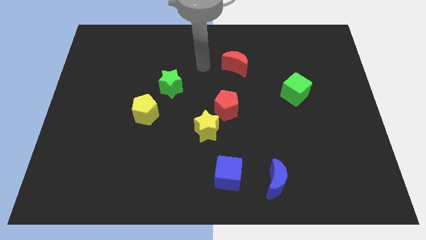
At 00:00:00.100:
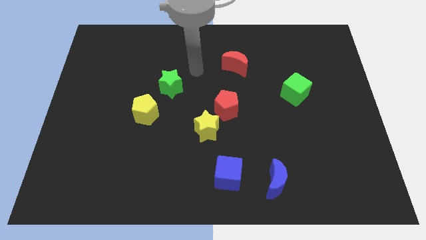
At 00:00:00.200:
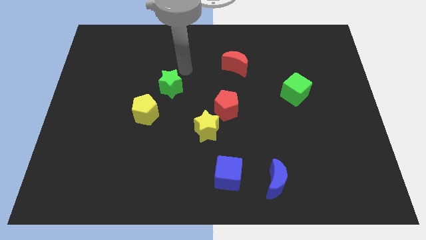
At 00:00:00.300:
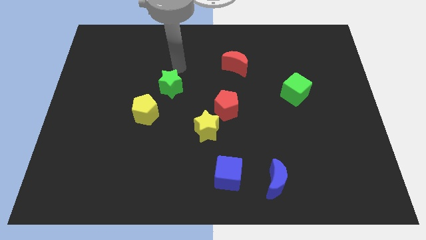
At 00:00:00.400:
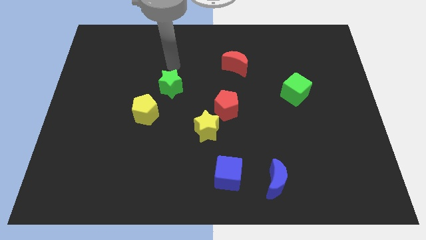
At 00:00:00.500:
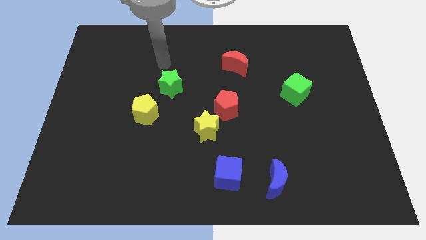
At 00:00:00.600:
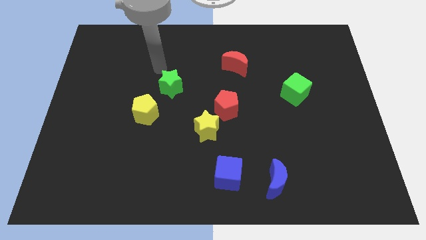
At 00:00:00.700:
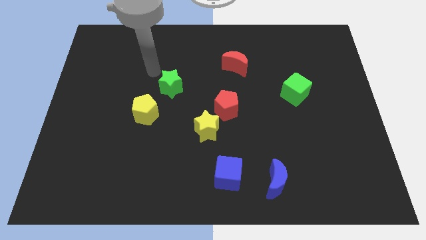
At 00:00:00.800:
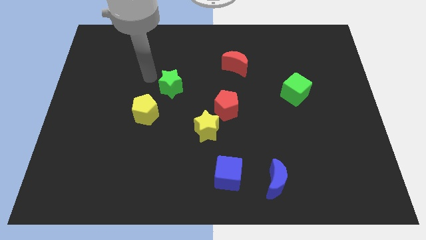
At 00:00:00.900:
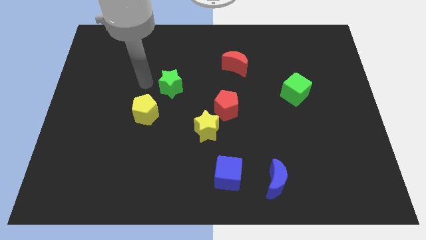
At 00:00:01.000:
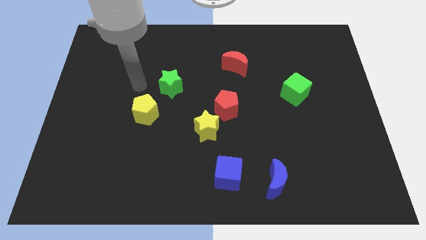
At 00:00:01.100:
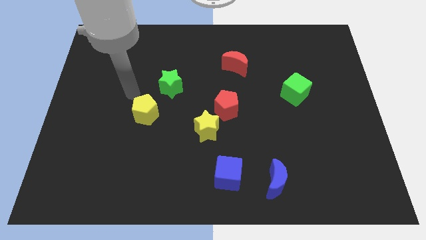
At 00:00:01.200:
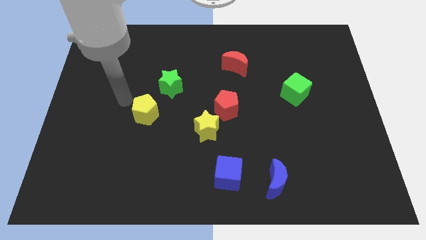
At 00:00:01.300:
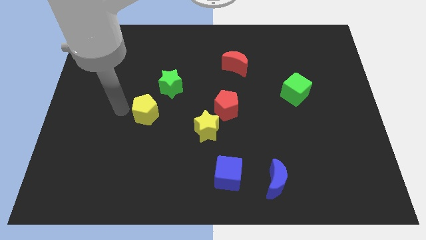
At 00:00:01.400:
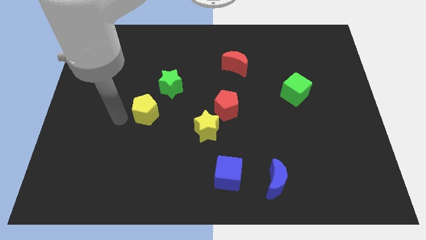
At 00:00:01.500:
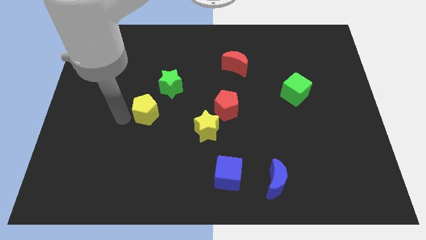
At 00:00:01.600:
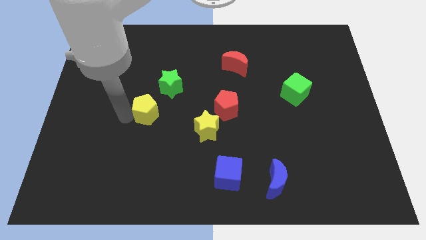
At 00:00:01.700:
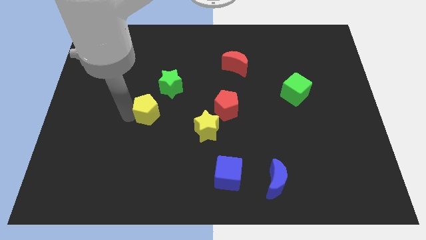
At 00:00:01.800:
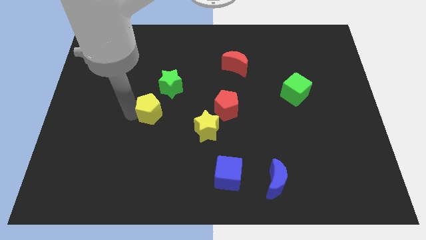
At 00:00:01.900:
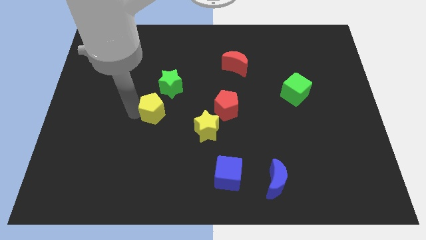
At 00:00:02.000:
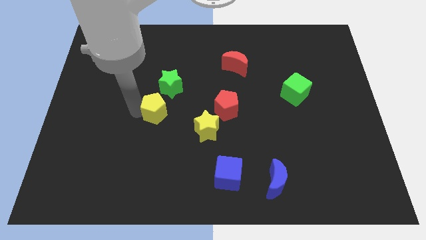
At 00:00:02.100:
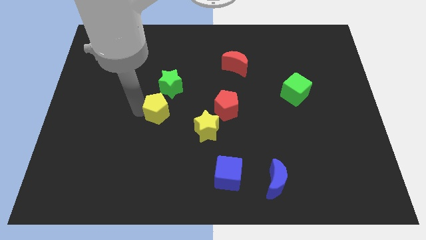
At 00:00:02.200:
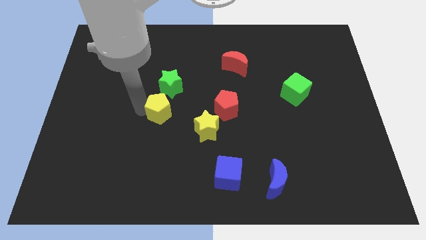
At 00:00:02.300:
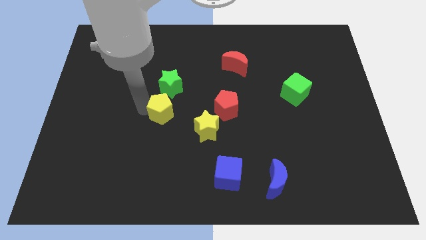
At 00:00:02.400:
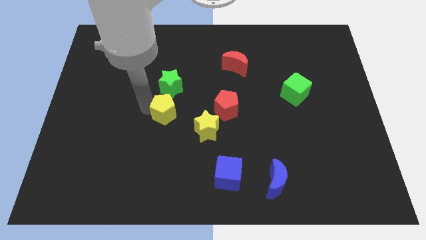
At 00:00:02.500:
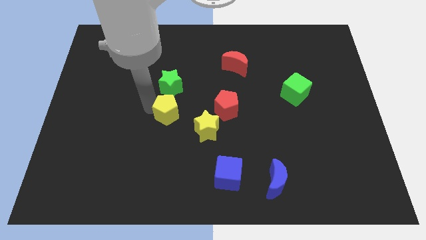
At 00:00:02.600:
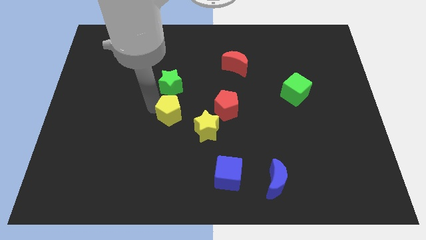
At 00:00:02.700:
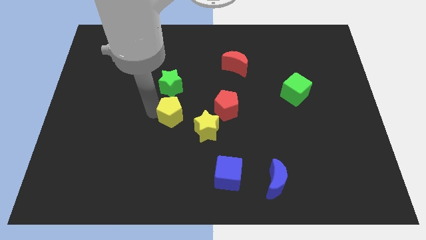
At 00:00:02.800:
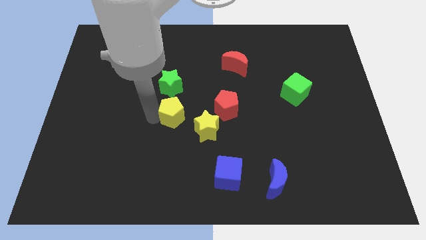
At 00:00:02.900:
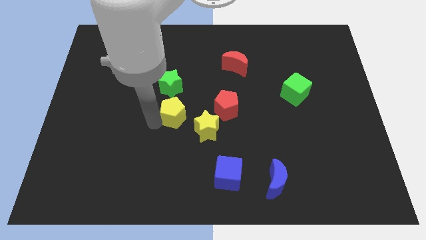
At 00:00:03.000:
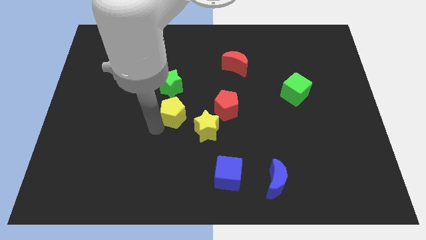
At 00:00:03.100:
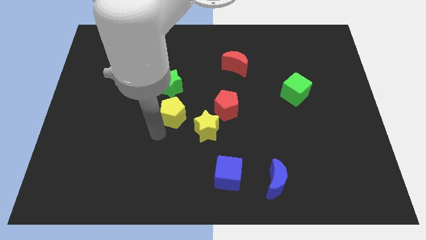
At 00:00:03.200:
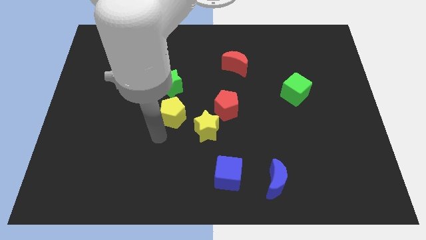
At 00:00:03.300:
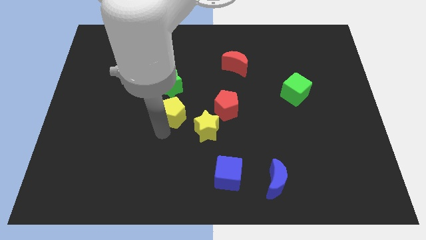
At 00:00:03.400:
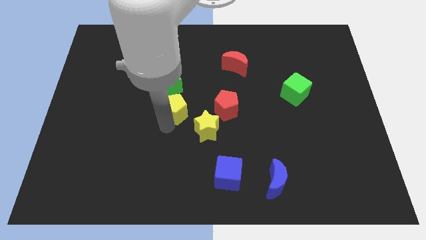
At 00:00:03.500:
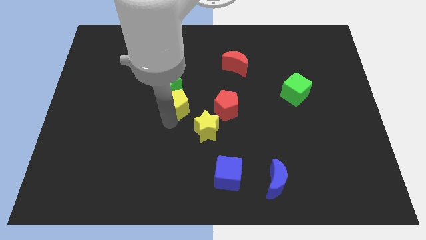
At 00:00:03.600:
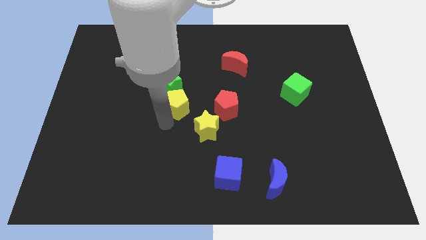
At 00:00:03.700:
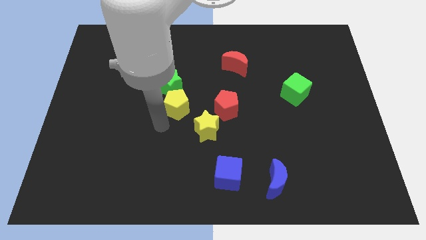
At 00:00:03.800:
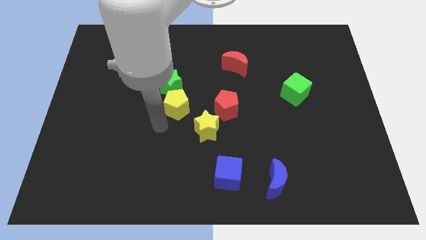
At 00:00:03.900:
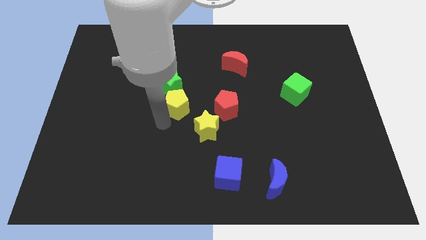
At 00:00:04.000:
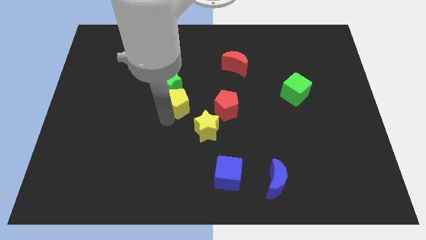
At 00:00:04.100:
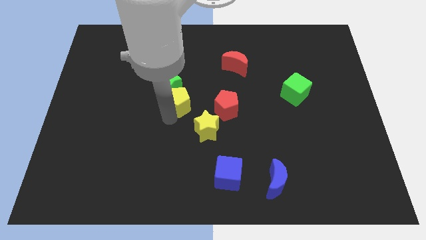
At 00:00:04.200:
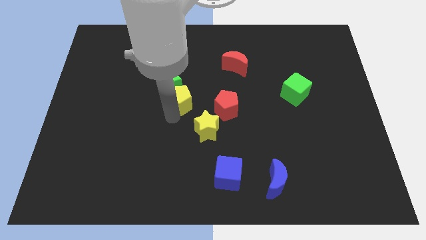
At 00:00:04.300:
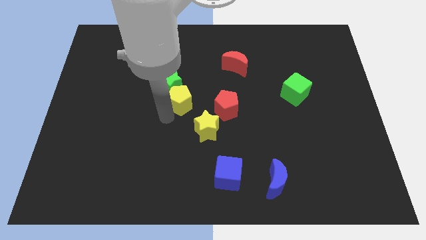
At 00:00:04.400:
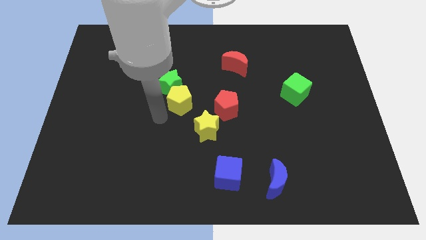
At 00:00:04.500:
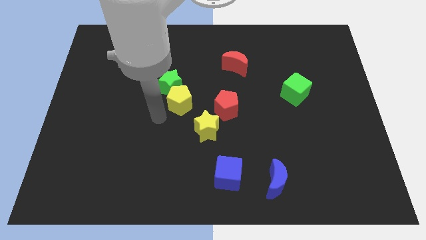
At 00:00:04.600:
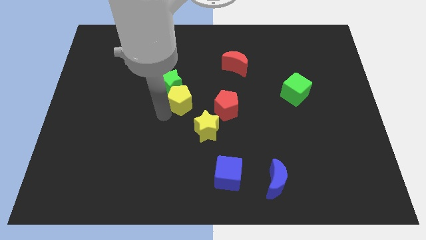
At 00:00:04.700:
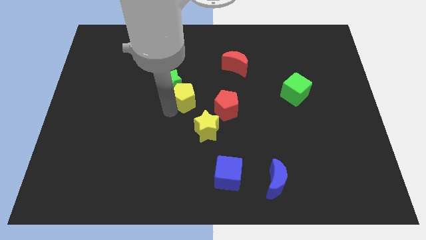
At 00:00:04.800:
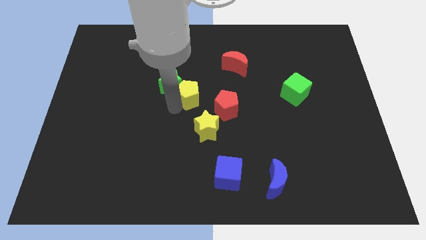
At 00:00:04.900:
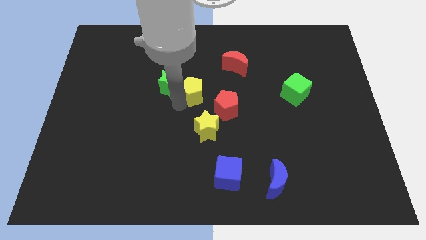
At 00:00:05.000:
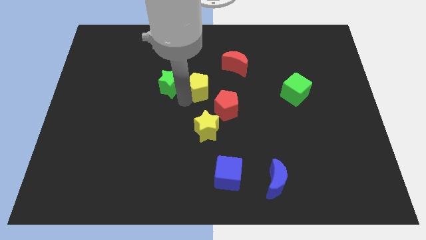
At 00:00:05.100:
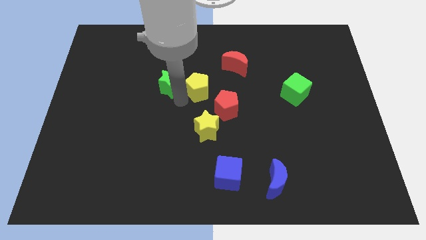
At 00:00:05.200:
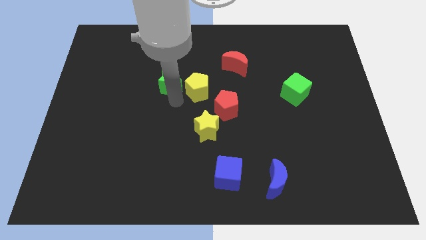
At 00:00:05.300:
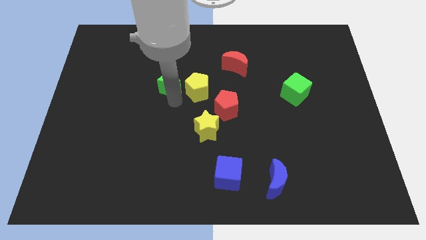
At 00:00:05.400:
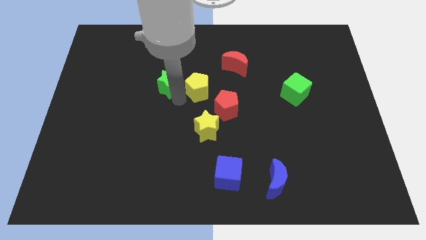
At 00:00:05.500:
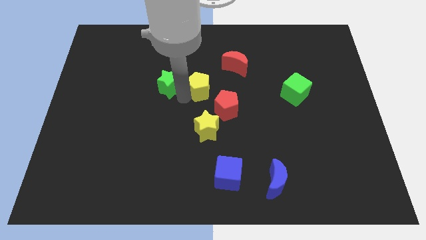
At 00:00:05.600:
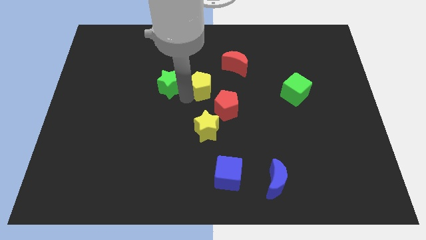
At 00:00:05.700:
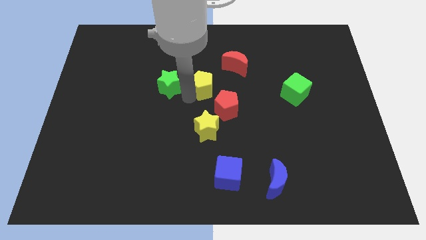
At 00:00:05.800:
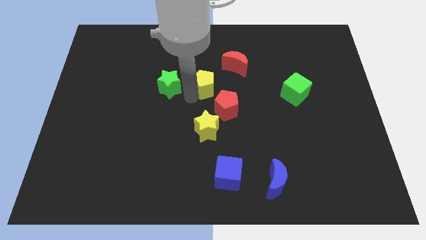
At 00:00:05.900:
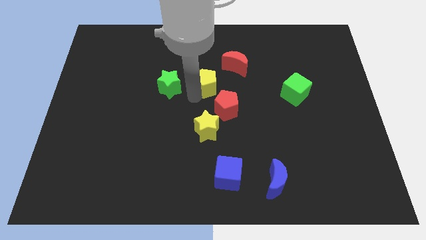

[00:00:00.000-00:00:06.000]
put the yellow pentagon above the red pentagon

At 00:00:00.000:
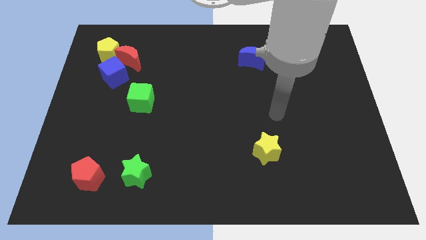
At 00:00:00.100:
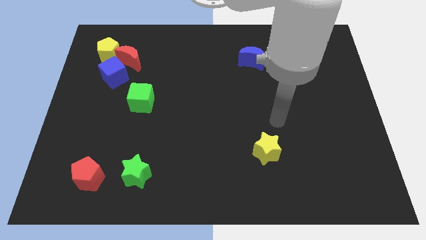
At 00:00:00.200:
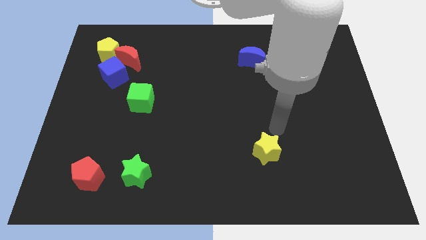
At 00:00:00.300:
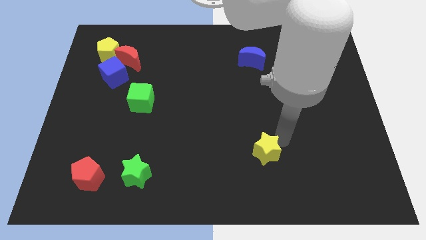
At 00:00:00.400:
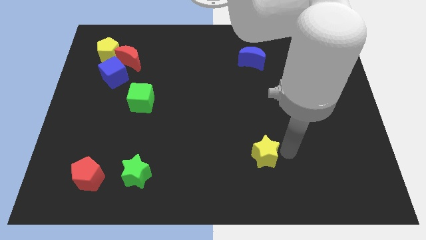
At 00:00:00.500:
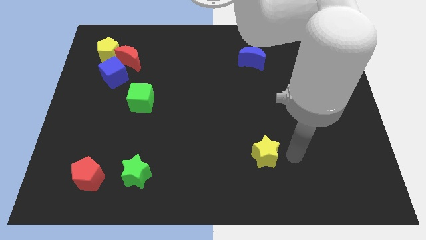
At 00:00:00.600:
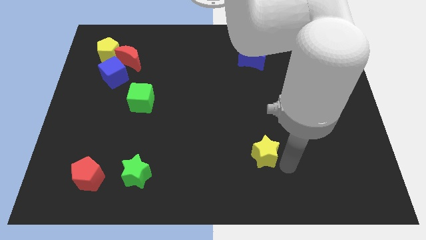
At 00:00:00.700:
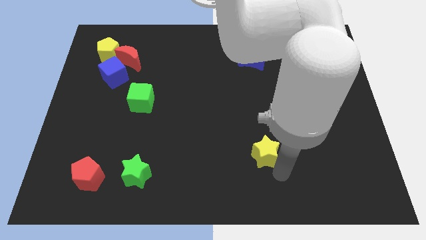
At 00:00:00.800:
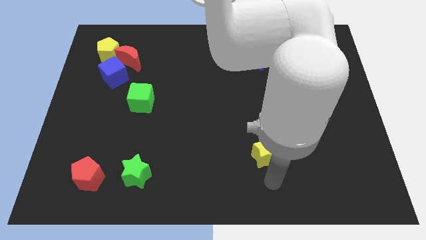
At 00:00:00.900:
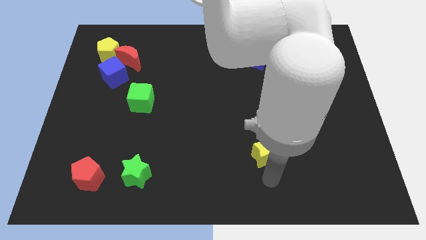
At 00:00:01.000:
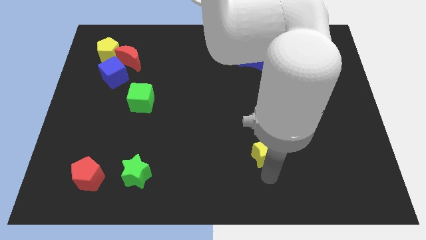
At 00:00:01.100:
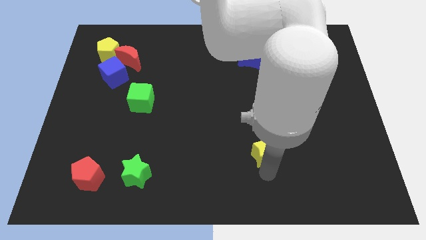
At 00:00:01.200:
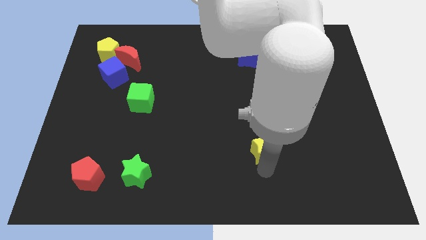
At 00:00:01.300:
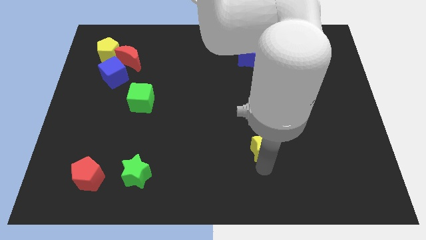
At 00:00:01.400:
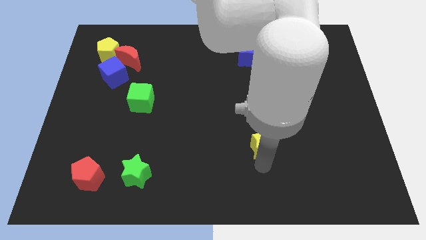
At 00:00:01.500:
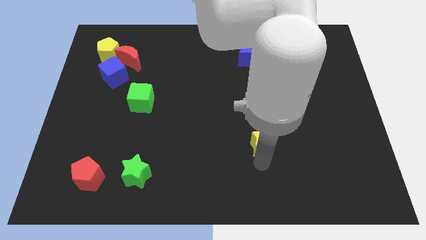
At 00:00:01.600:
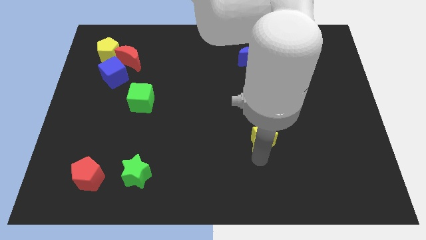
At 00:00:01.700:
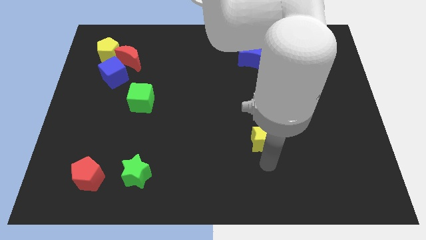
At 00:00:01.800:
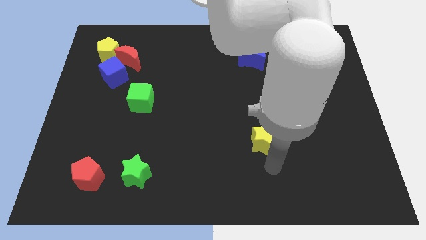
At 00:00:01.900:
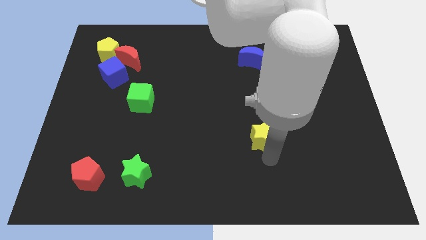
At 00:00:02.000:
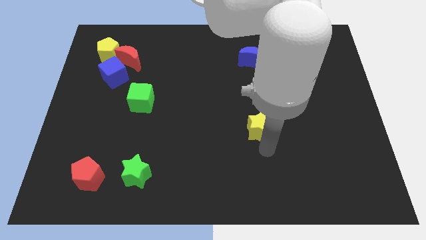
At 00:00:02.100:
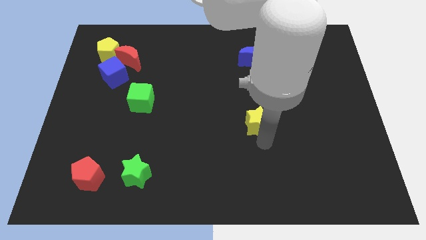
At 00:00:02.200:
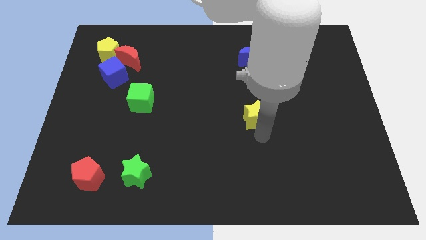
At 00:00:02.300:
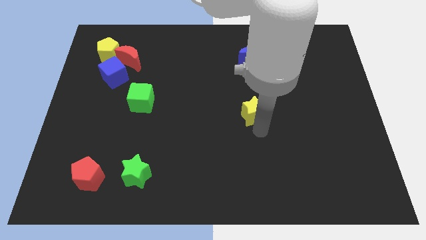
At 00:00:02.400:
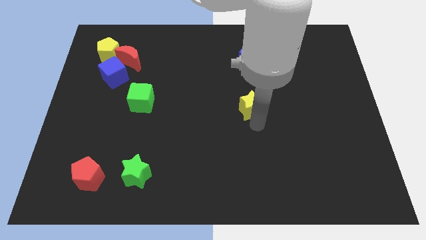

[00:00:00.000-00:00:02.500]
slide the yellow star below the blue moon
